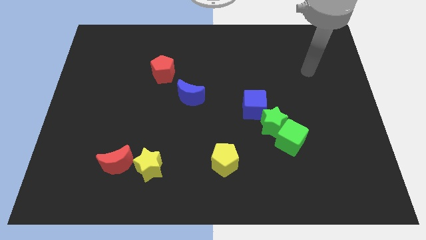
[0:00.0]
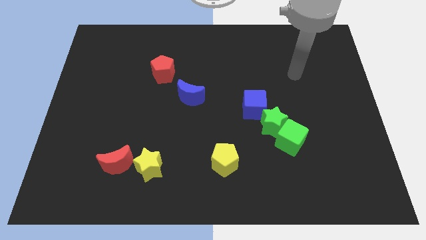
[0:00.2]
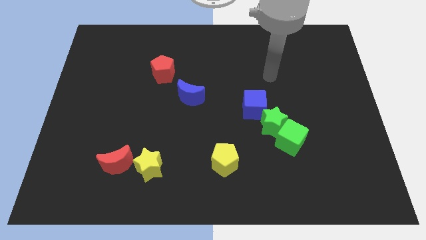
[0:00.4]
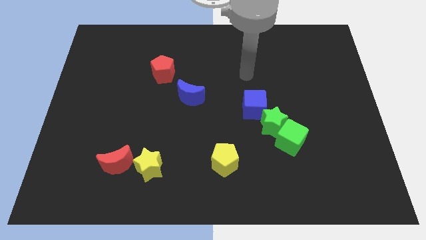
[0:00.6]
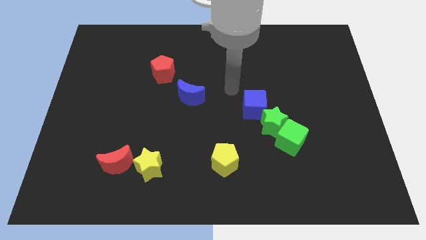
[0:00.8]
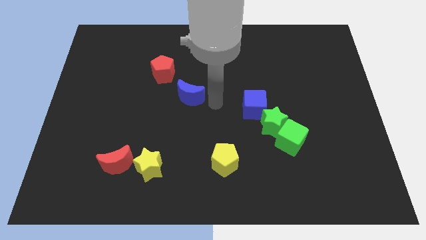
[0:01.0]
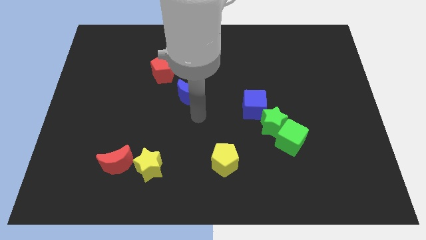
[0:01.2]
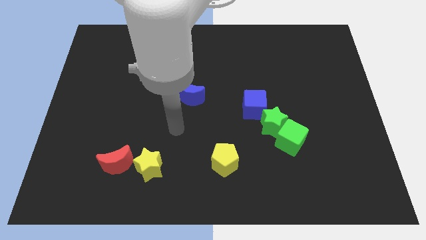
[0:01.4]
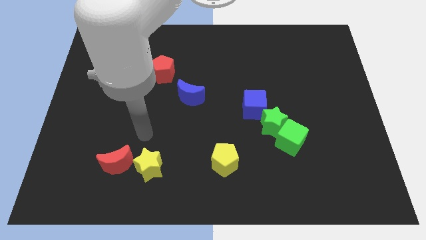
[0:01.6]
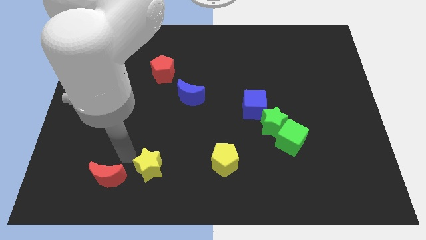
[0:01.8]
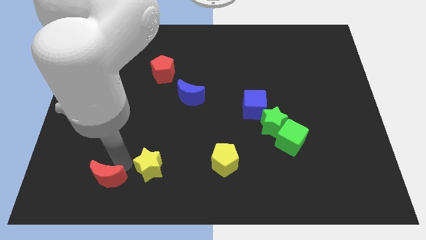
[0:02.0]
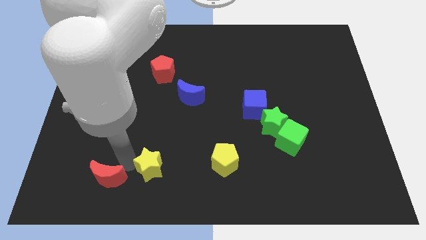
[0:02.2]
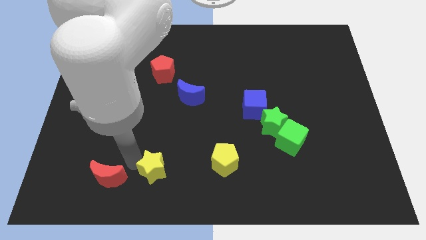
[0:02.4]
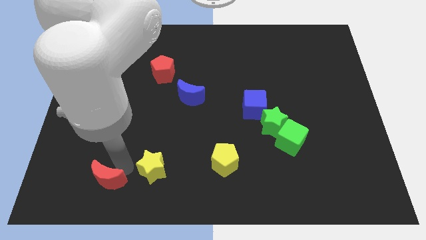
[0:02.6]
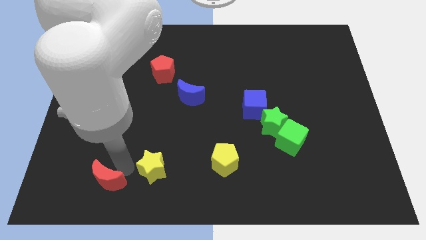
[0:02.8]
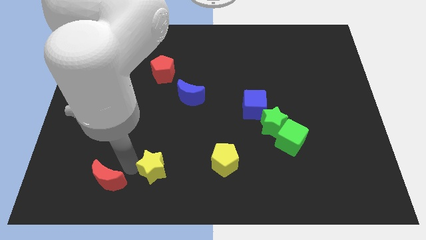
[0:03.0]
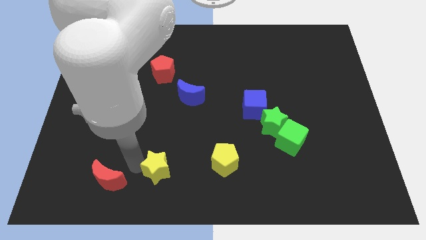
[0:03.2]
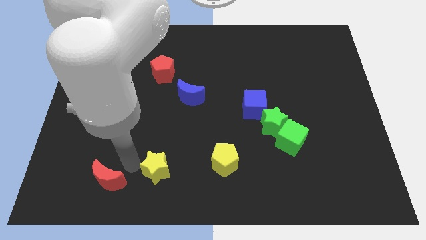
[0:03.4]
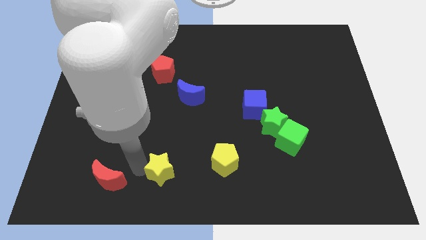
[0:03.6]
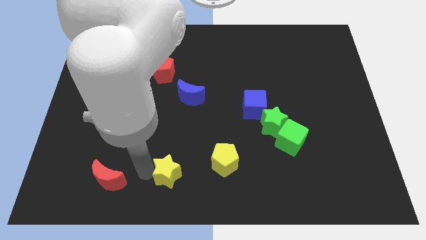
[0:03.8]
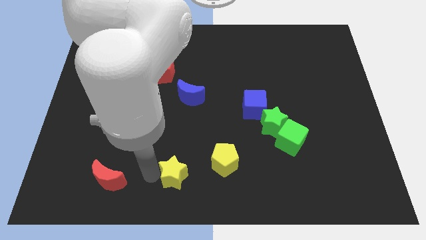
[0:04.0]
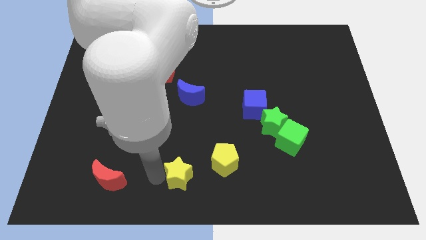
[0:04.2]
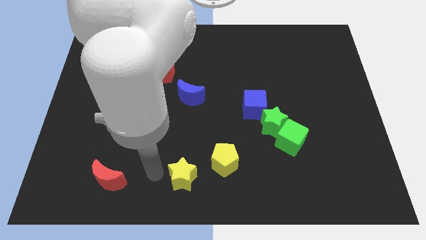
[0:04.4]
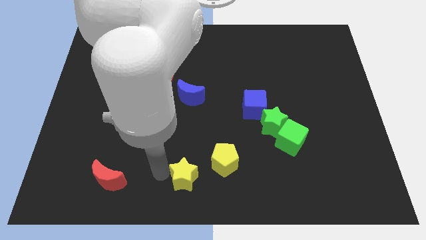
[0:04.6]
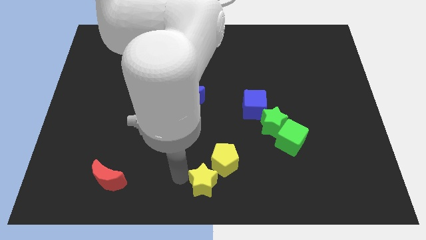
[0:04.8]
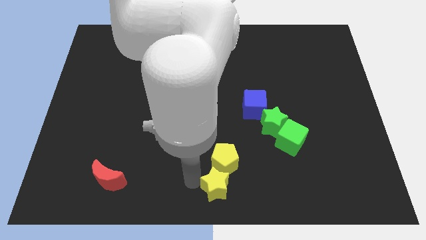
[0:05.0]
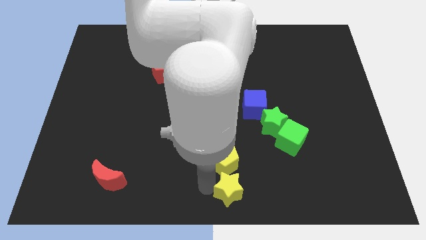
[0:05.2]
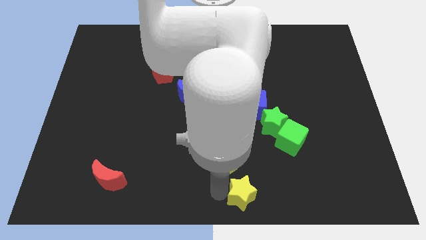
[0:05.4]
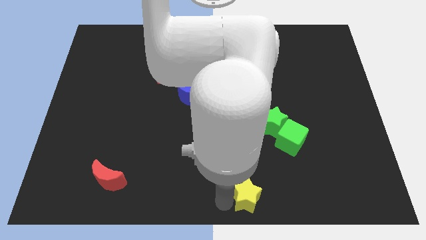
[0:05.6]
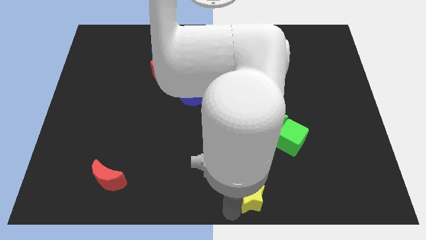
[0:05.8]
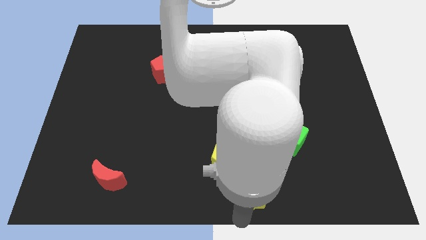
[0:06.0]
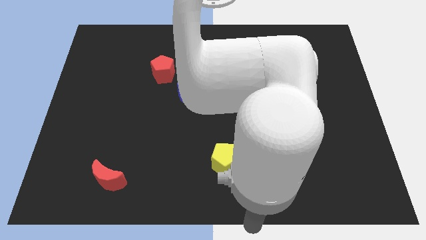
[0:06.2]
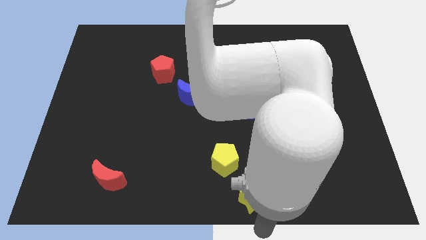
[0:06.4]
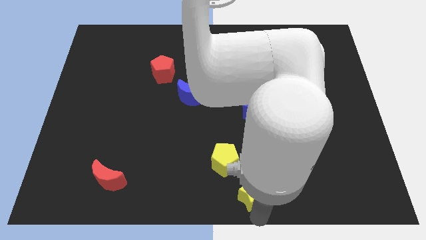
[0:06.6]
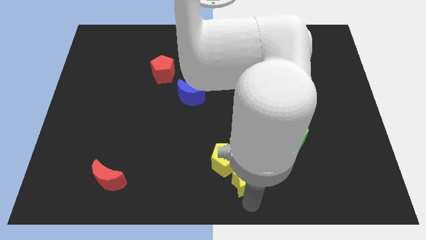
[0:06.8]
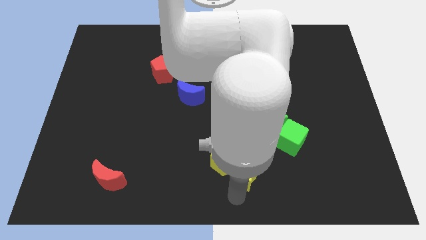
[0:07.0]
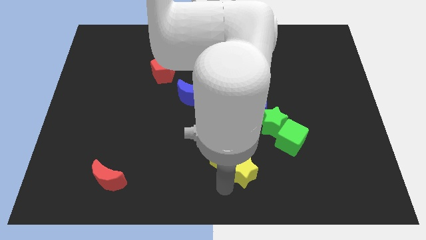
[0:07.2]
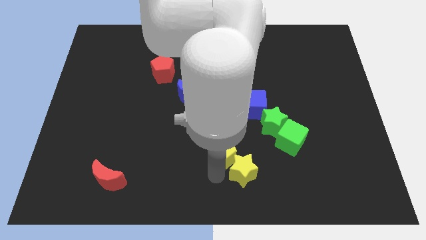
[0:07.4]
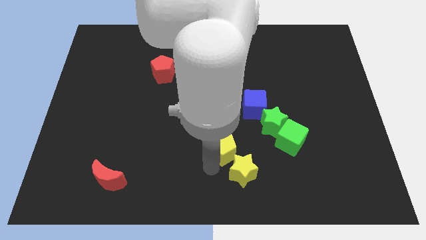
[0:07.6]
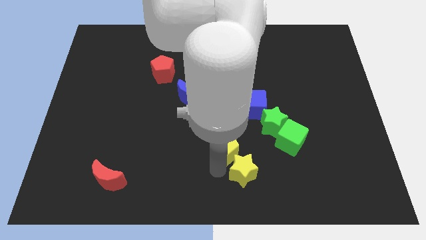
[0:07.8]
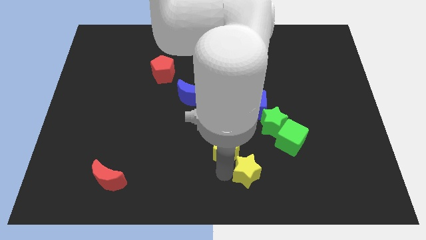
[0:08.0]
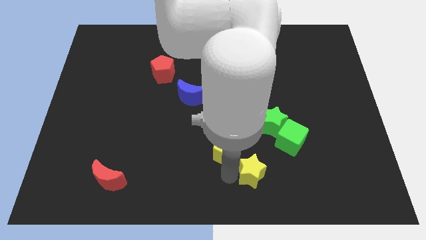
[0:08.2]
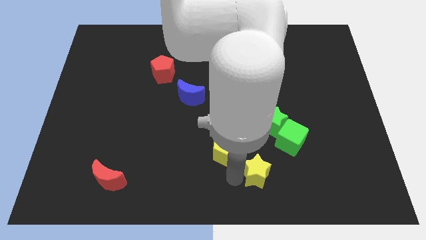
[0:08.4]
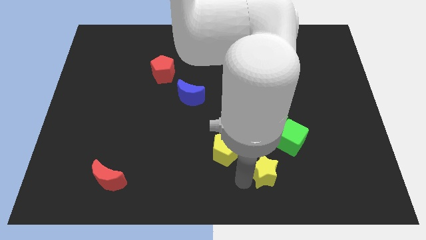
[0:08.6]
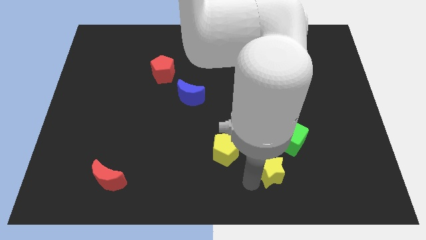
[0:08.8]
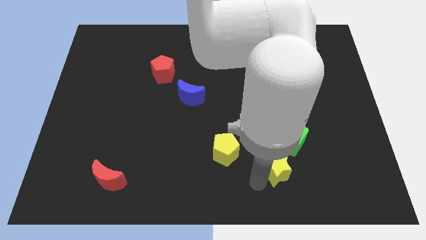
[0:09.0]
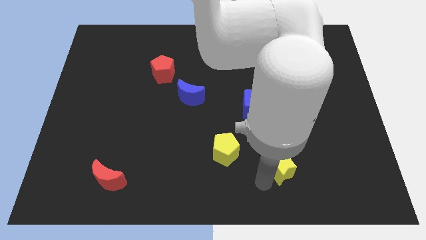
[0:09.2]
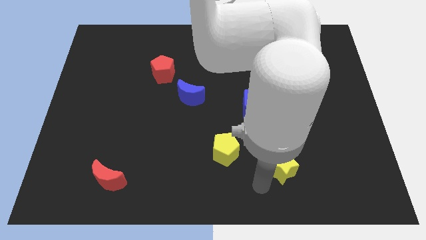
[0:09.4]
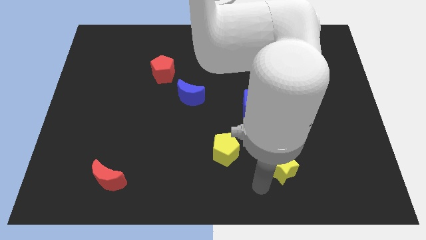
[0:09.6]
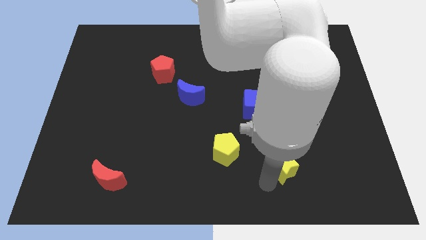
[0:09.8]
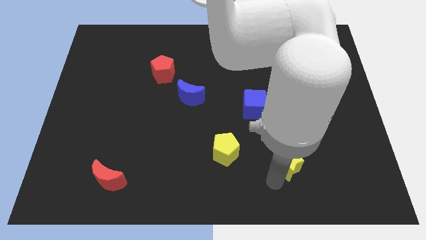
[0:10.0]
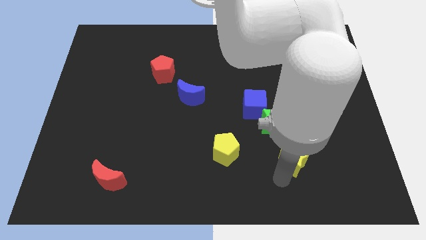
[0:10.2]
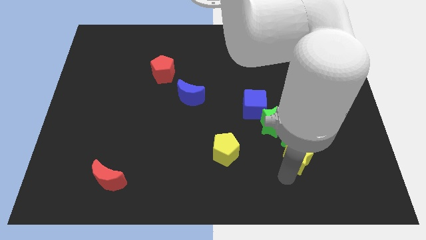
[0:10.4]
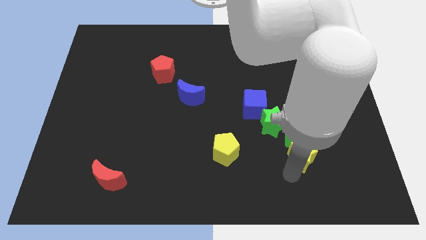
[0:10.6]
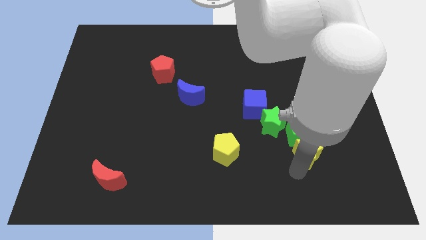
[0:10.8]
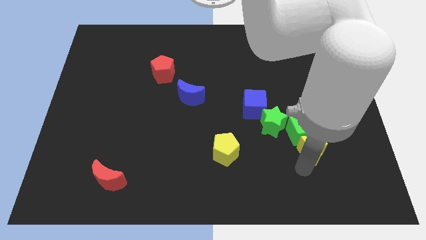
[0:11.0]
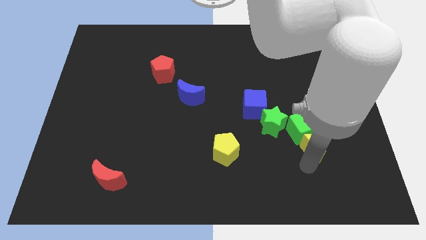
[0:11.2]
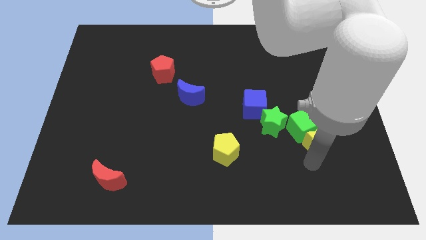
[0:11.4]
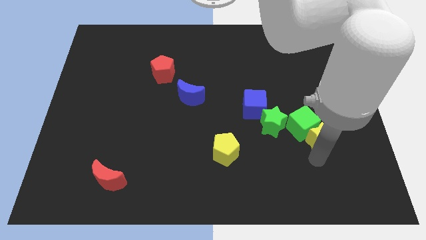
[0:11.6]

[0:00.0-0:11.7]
put the yellow star to the right of the green star

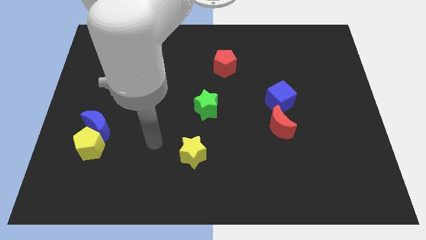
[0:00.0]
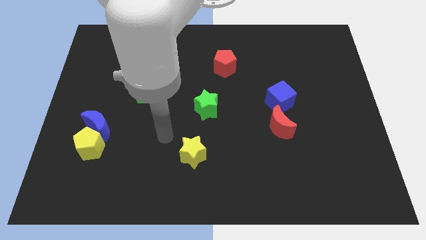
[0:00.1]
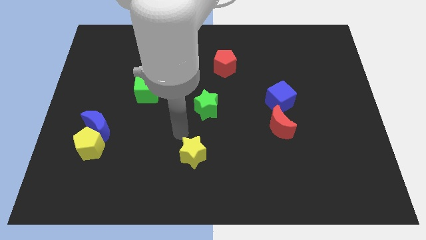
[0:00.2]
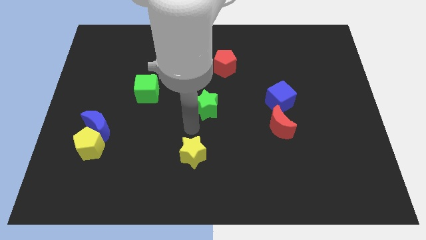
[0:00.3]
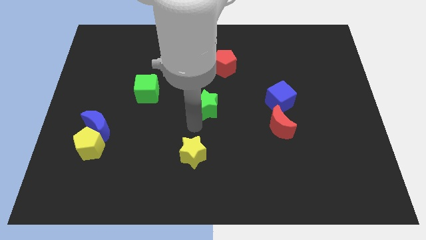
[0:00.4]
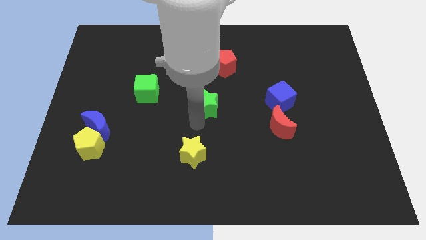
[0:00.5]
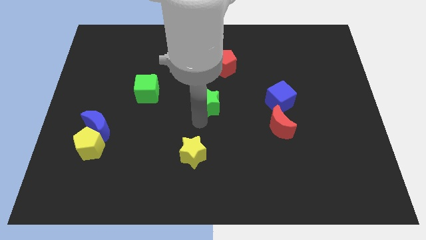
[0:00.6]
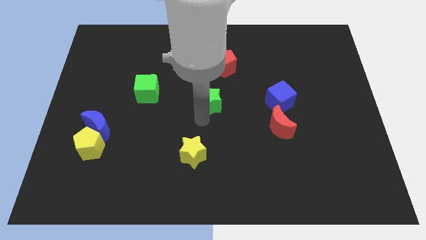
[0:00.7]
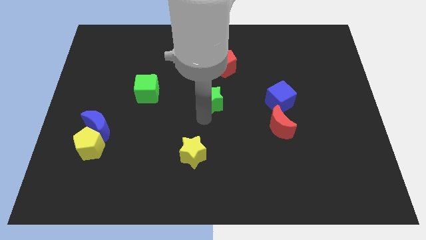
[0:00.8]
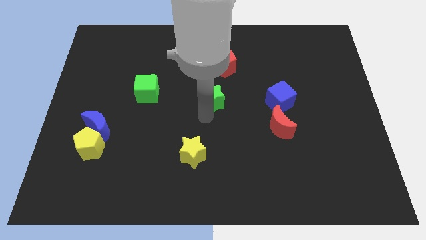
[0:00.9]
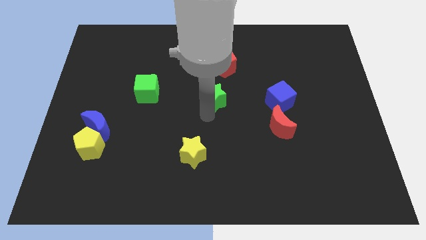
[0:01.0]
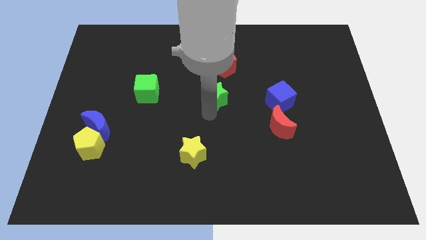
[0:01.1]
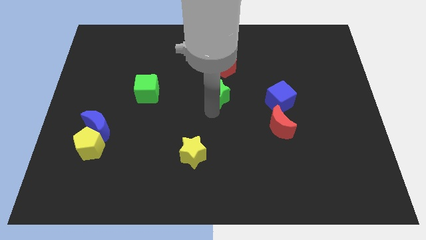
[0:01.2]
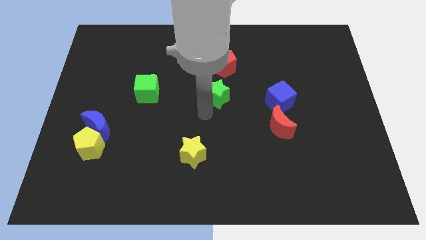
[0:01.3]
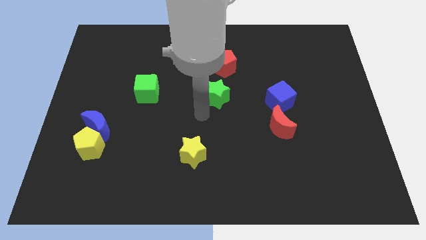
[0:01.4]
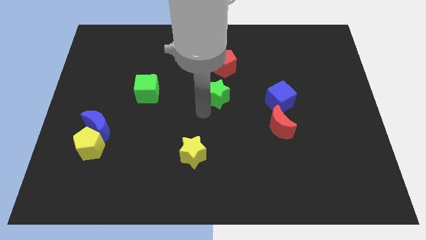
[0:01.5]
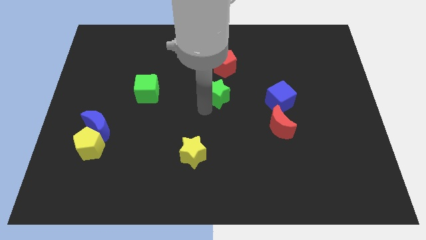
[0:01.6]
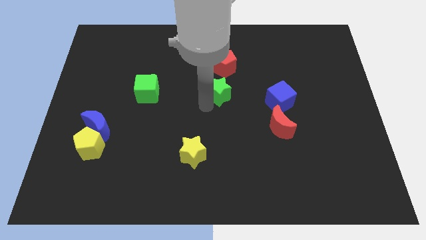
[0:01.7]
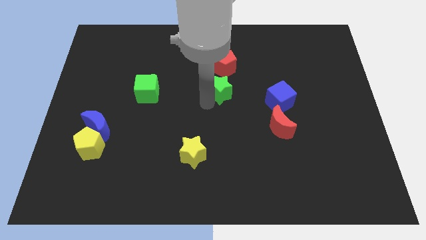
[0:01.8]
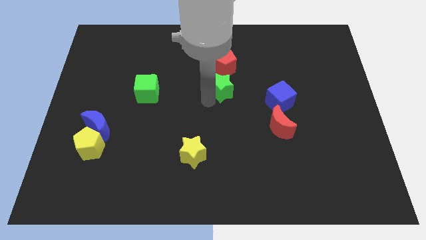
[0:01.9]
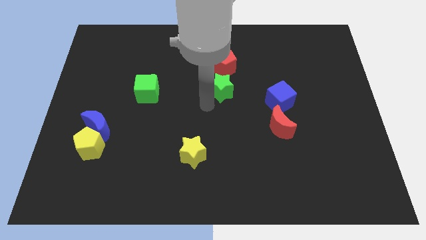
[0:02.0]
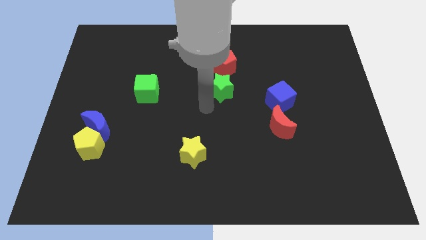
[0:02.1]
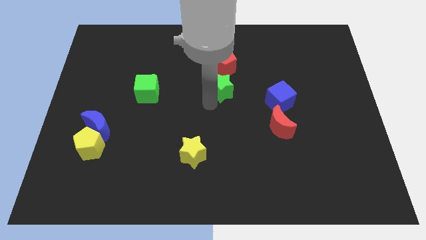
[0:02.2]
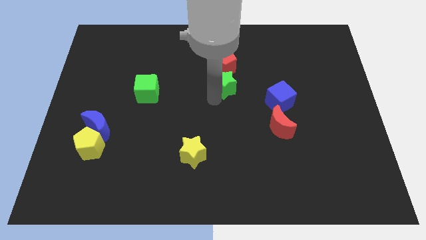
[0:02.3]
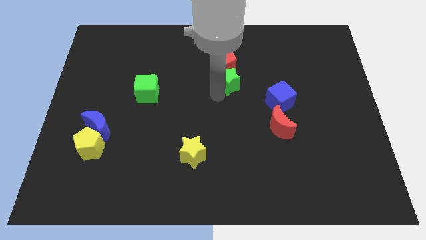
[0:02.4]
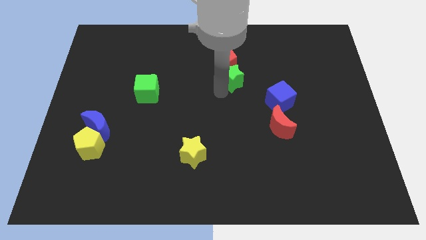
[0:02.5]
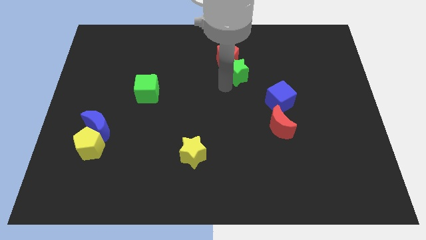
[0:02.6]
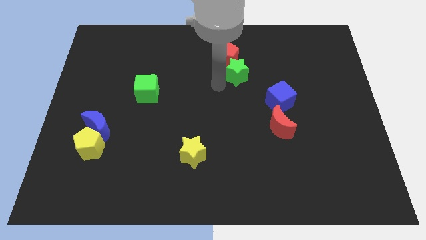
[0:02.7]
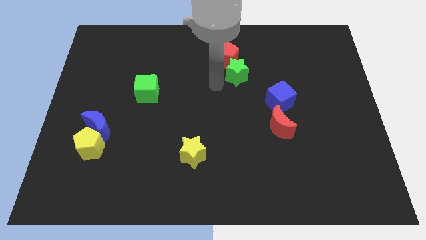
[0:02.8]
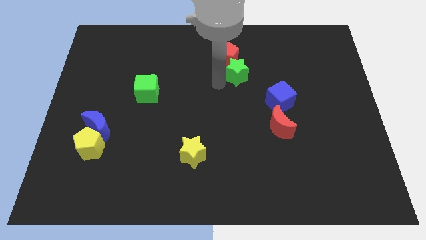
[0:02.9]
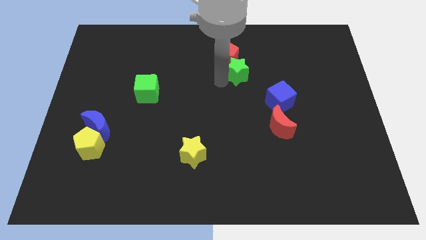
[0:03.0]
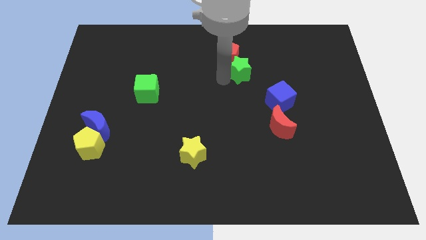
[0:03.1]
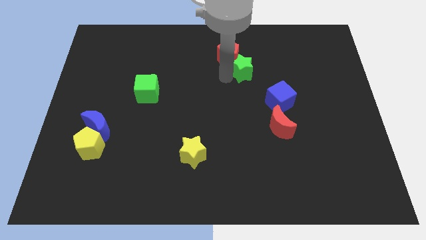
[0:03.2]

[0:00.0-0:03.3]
push the green star to the right of the red pentagon
